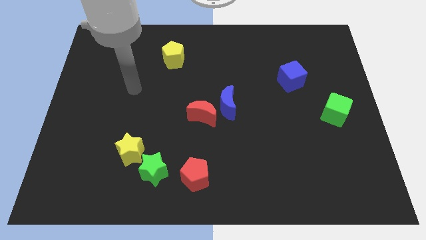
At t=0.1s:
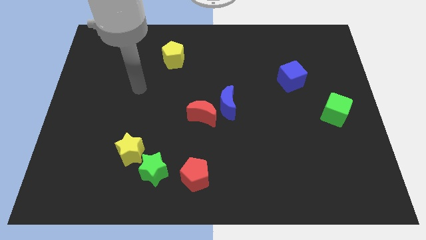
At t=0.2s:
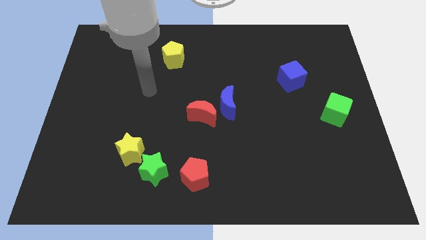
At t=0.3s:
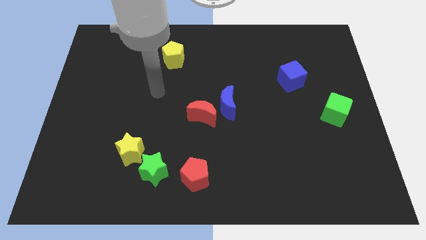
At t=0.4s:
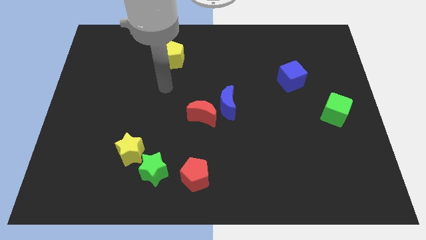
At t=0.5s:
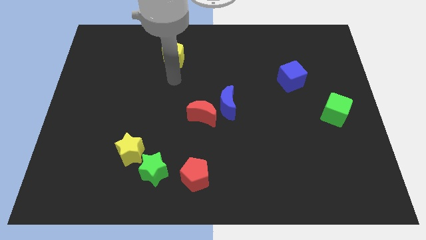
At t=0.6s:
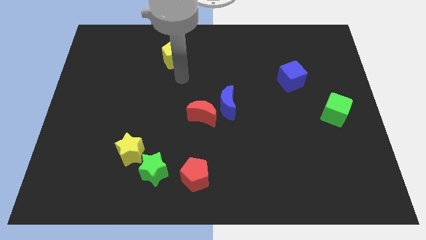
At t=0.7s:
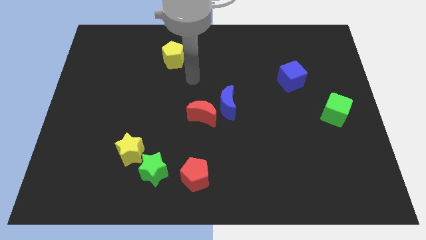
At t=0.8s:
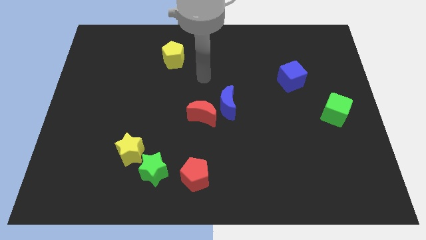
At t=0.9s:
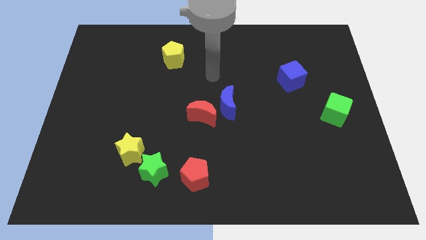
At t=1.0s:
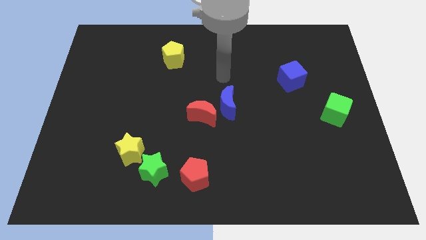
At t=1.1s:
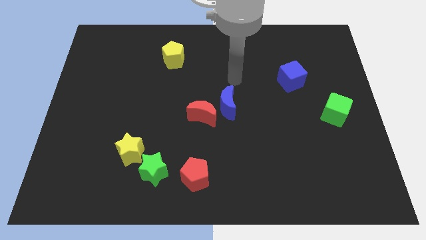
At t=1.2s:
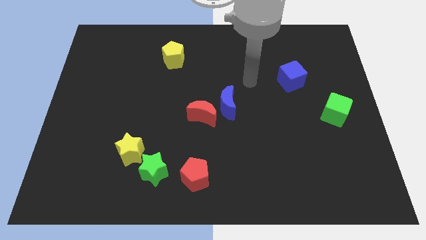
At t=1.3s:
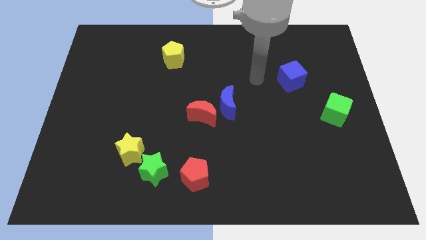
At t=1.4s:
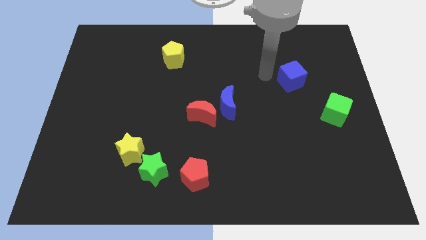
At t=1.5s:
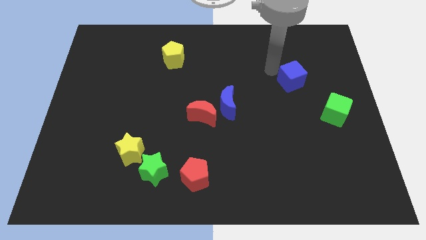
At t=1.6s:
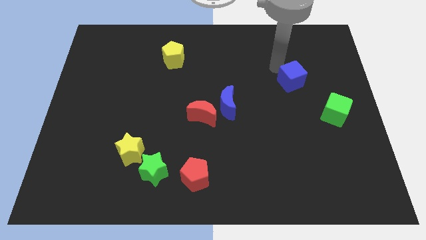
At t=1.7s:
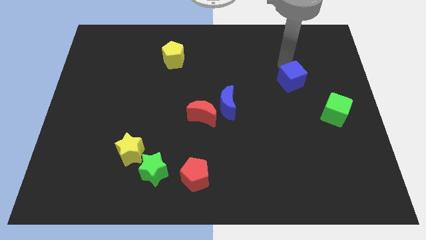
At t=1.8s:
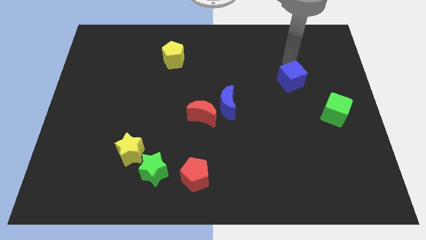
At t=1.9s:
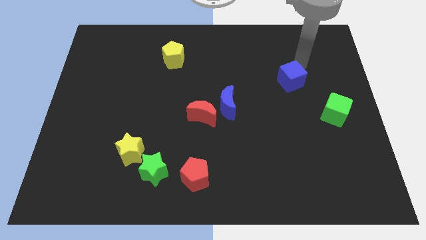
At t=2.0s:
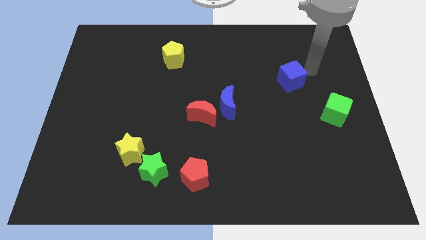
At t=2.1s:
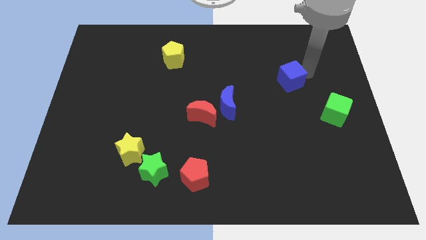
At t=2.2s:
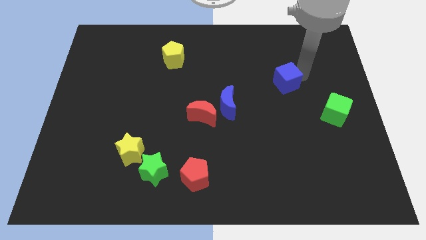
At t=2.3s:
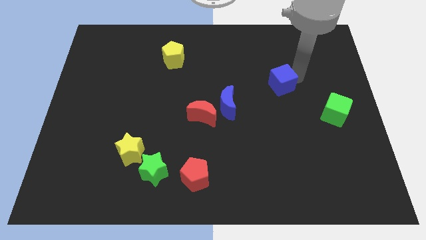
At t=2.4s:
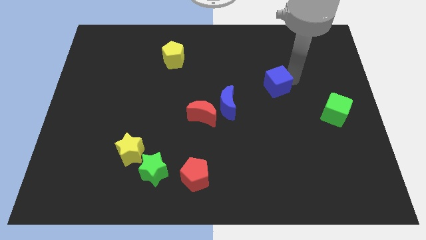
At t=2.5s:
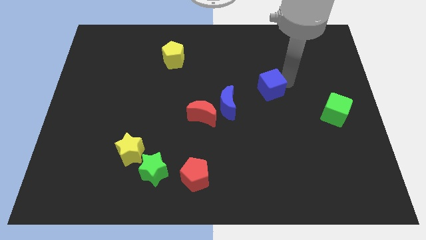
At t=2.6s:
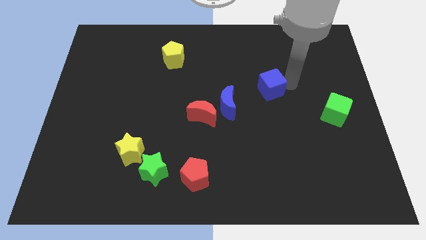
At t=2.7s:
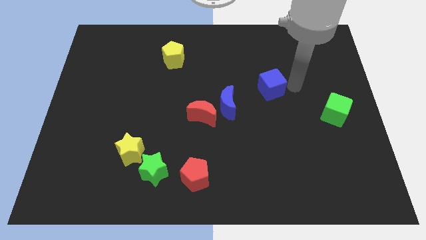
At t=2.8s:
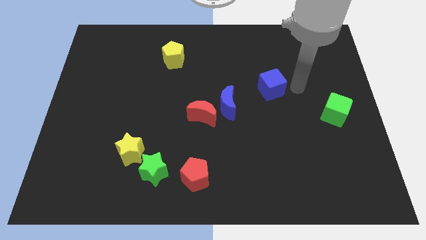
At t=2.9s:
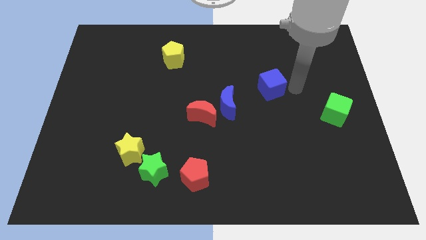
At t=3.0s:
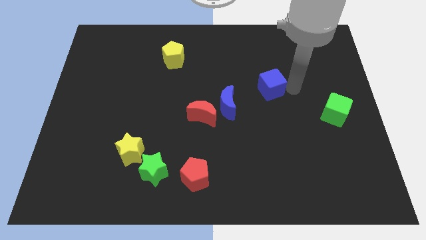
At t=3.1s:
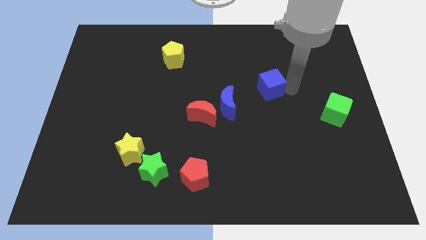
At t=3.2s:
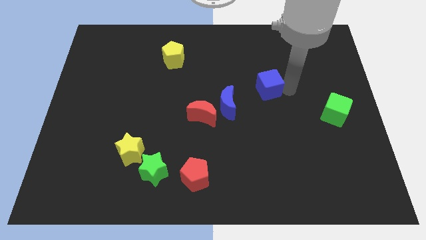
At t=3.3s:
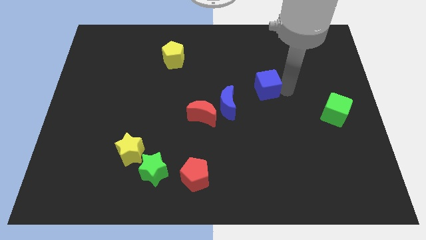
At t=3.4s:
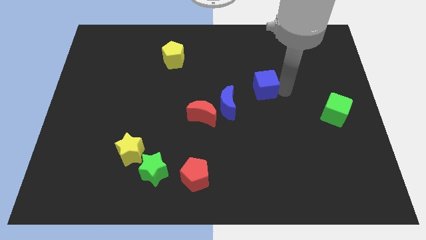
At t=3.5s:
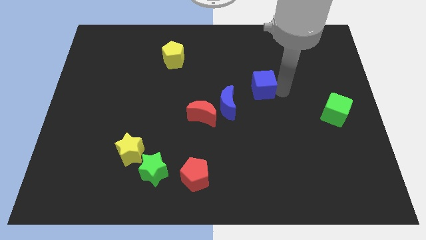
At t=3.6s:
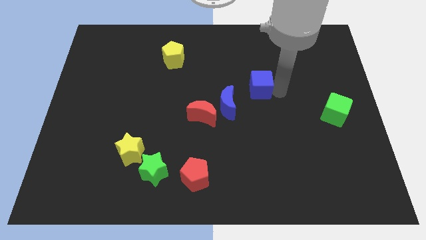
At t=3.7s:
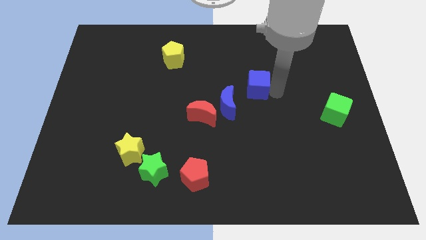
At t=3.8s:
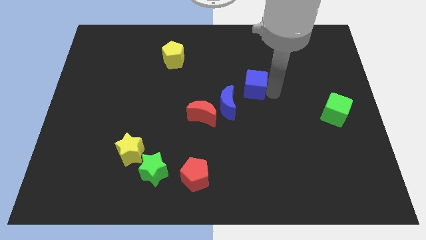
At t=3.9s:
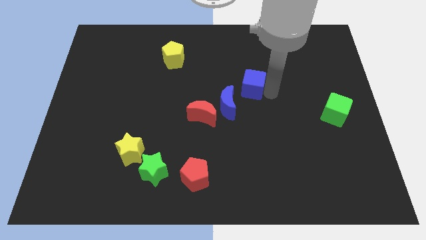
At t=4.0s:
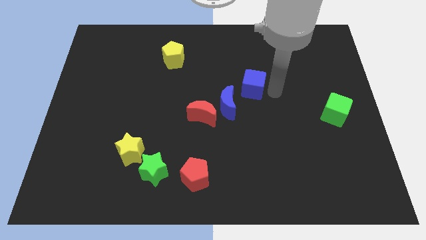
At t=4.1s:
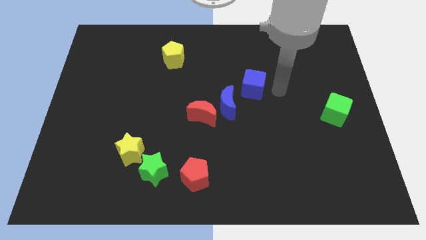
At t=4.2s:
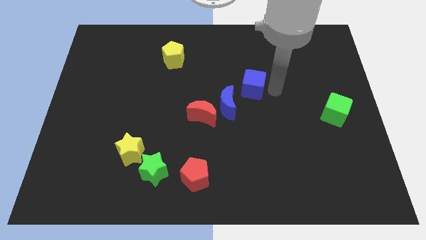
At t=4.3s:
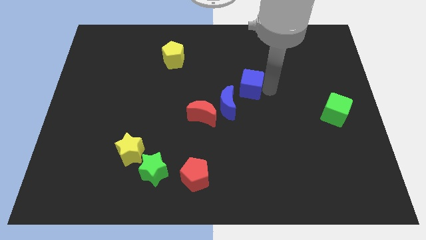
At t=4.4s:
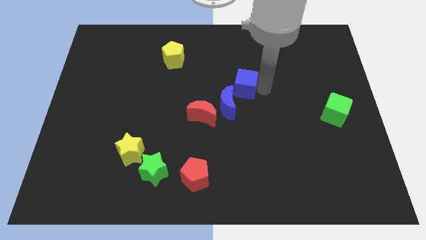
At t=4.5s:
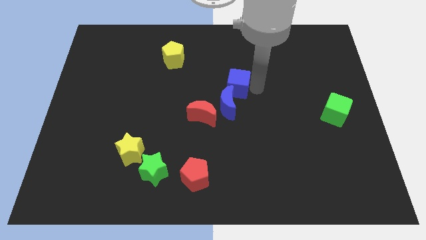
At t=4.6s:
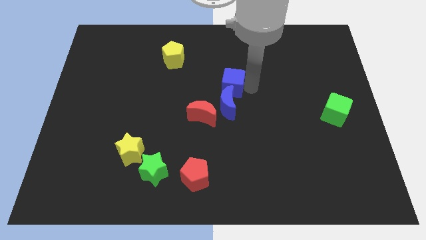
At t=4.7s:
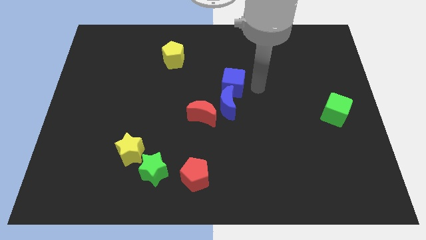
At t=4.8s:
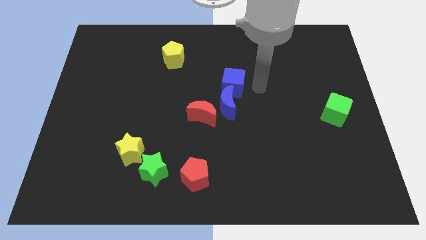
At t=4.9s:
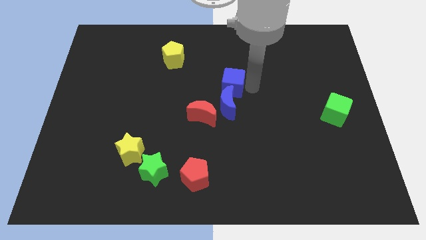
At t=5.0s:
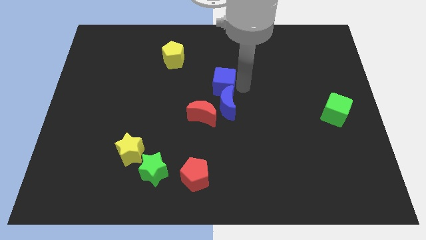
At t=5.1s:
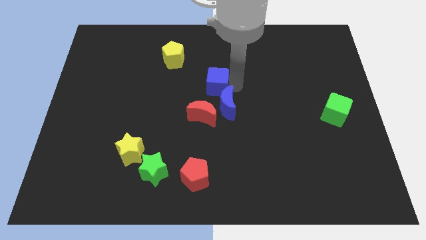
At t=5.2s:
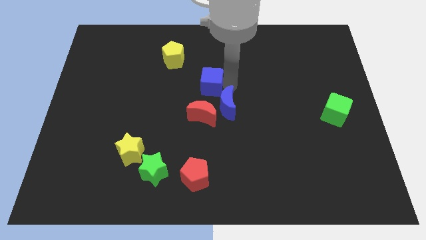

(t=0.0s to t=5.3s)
push the blue cube to the left

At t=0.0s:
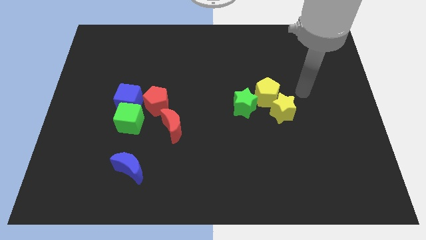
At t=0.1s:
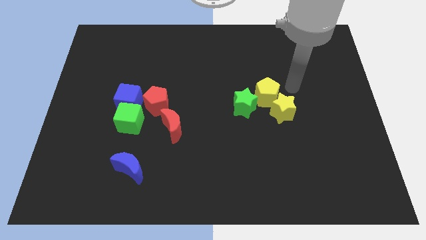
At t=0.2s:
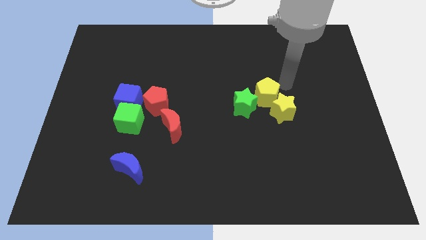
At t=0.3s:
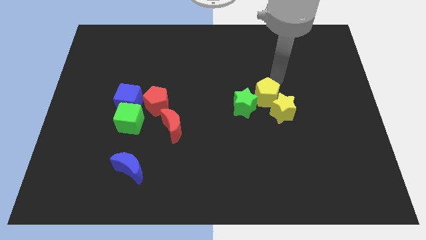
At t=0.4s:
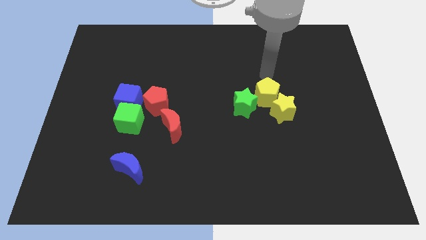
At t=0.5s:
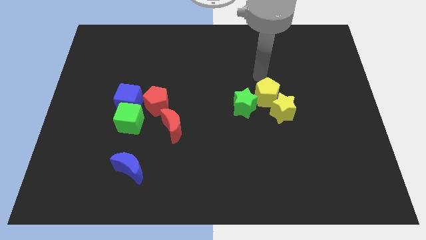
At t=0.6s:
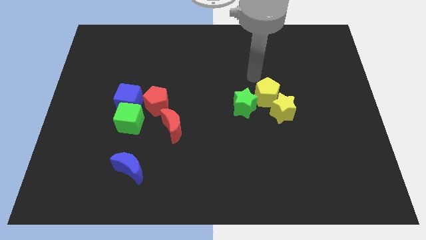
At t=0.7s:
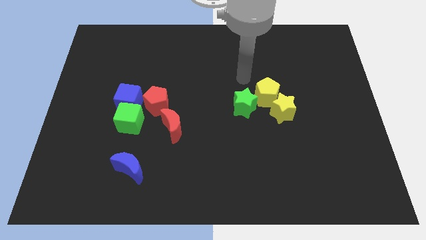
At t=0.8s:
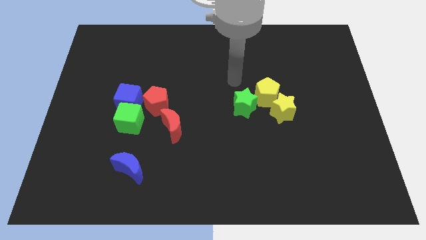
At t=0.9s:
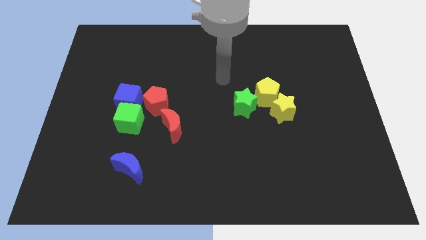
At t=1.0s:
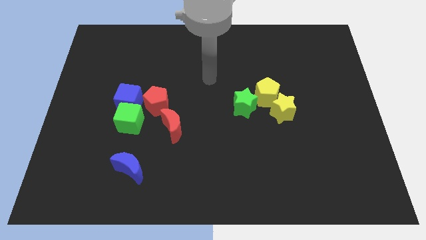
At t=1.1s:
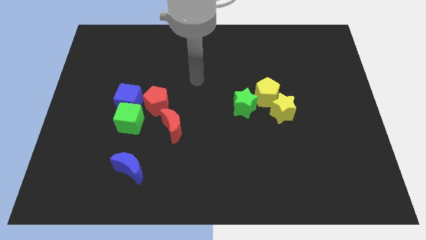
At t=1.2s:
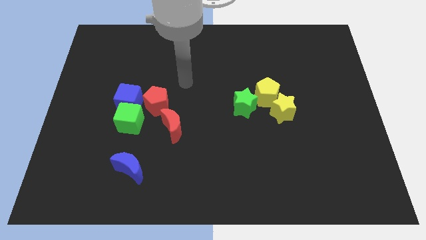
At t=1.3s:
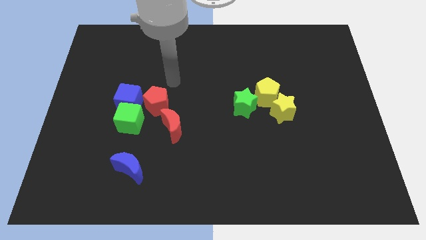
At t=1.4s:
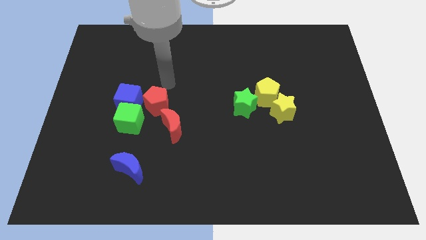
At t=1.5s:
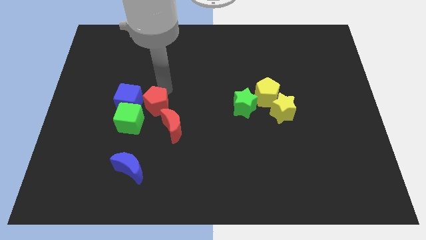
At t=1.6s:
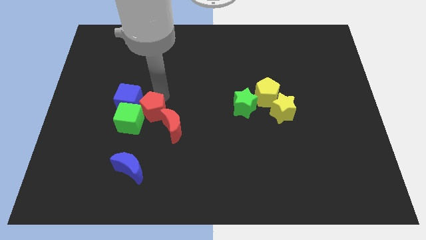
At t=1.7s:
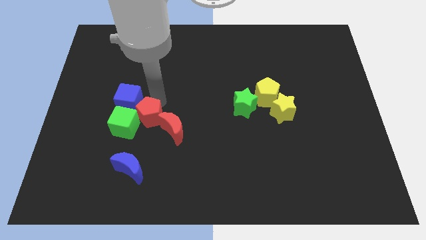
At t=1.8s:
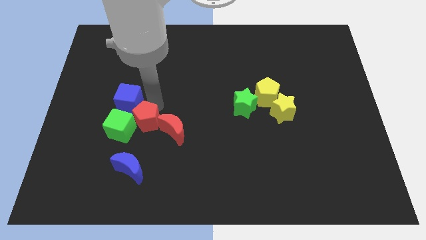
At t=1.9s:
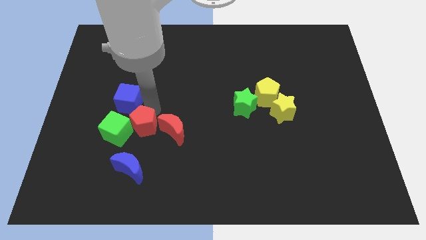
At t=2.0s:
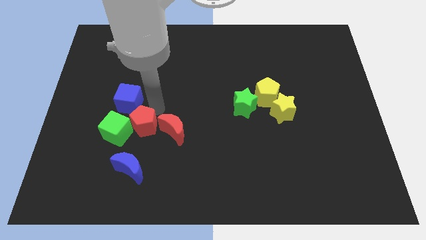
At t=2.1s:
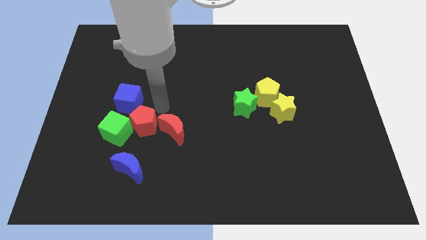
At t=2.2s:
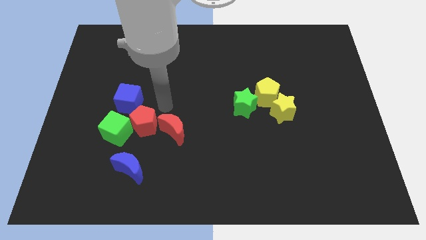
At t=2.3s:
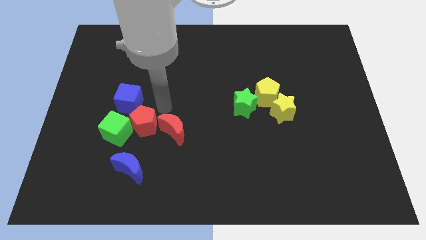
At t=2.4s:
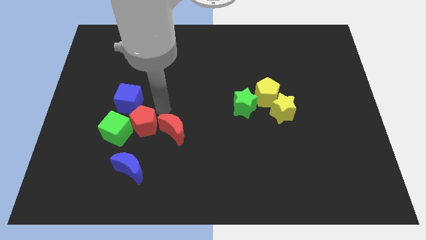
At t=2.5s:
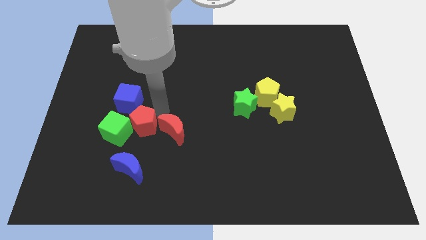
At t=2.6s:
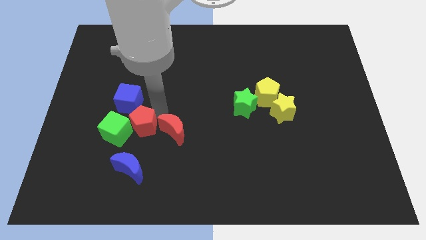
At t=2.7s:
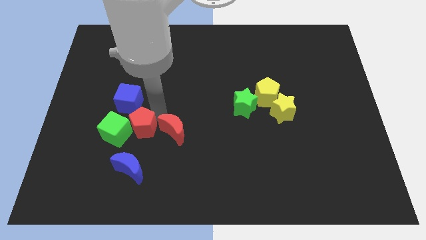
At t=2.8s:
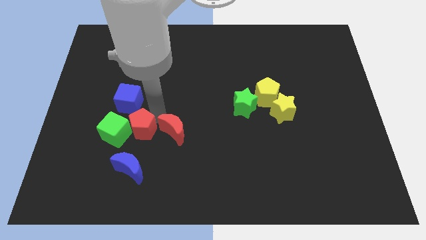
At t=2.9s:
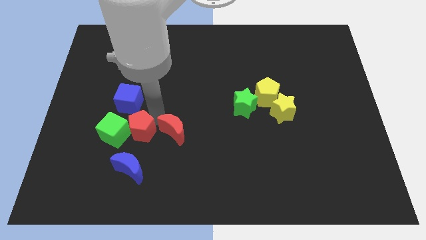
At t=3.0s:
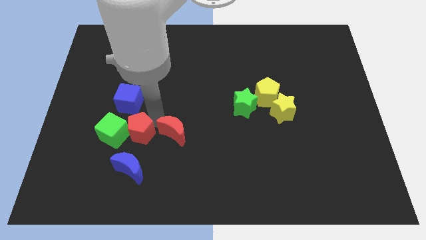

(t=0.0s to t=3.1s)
slightly slide the red pentagon diagonally down and left
